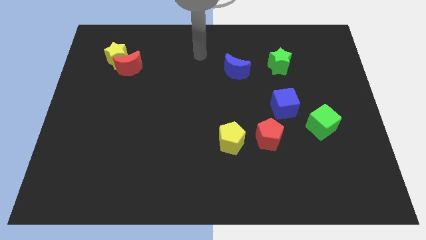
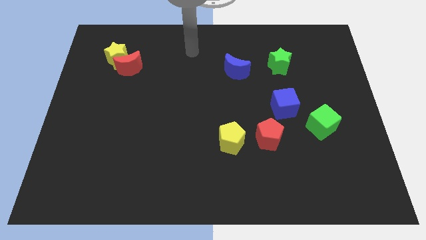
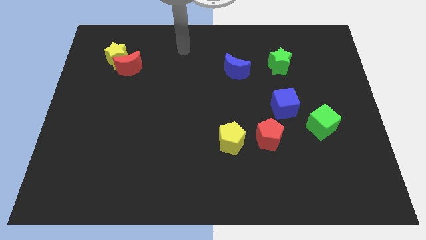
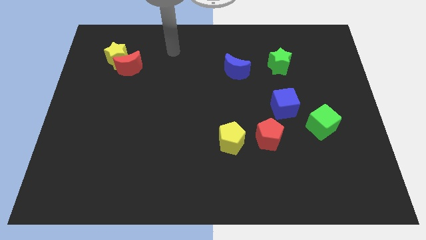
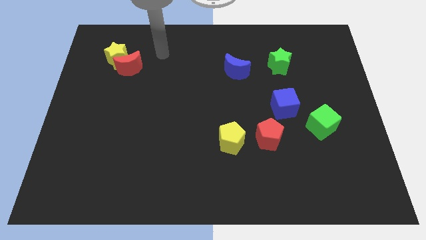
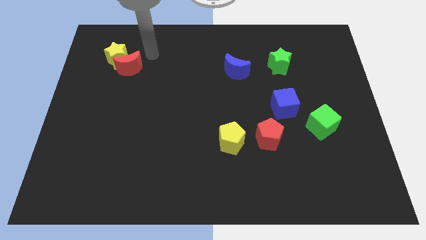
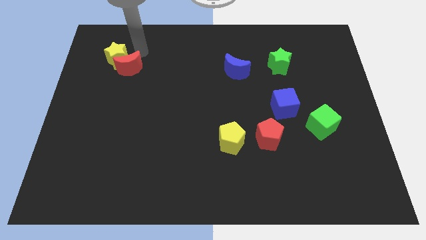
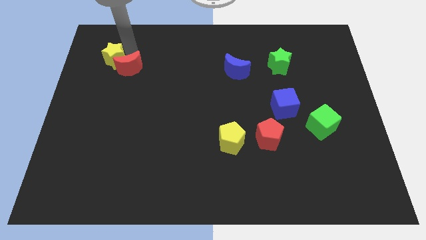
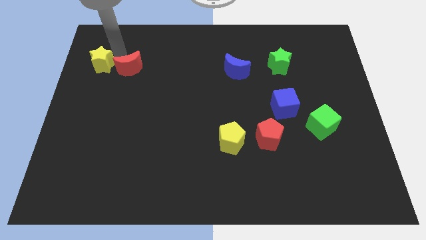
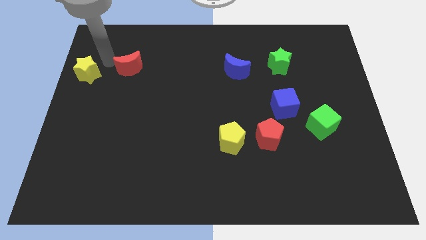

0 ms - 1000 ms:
separate the red moon from the yellow star

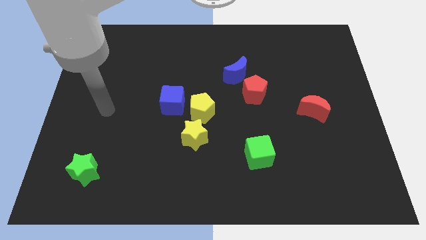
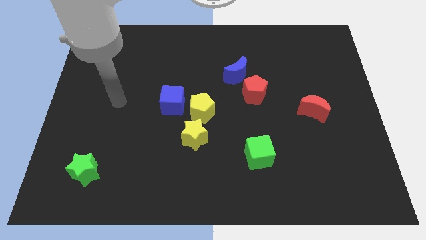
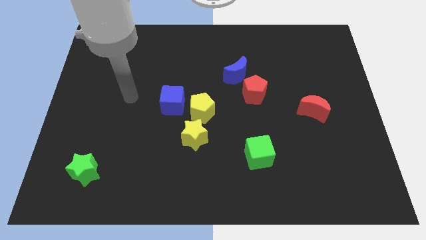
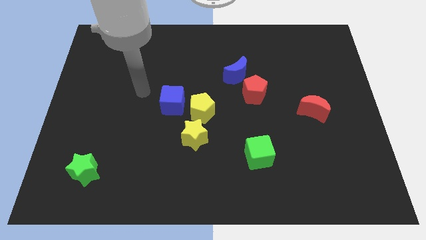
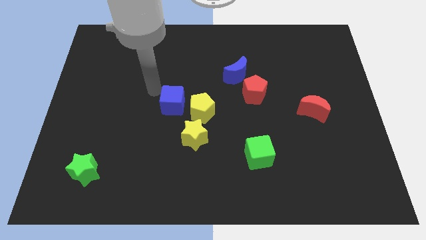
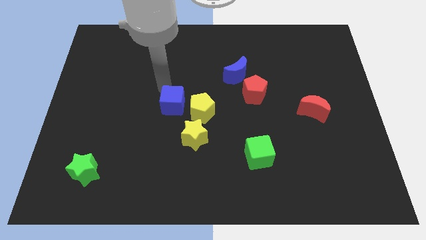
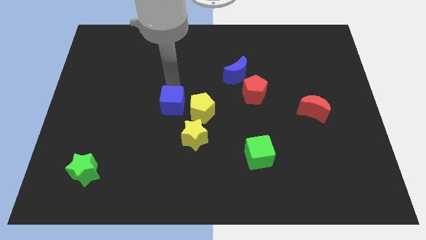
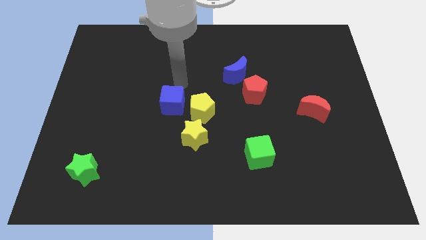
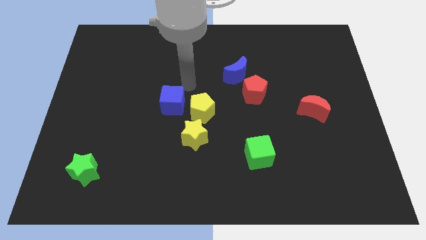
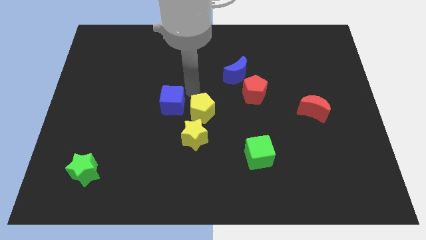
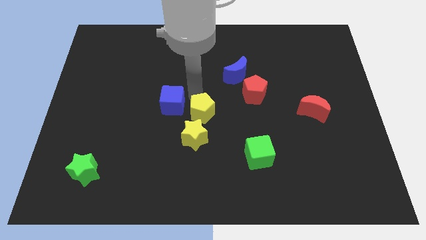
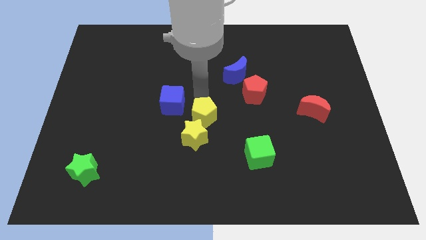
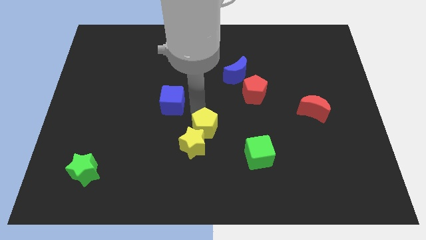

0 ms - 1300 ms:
pull the blue cube apart from the yellow pentagon

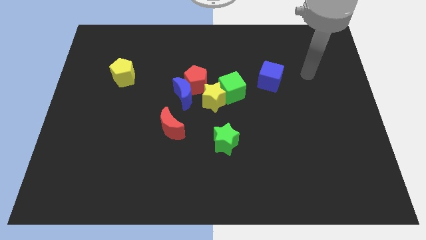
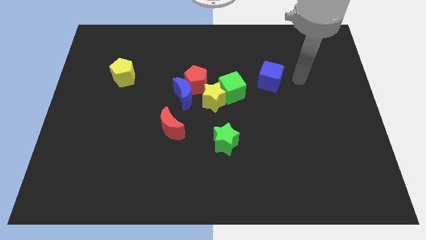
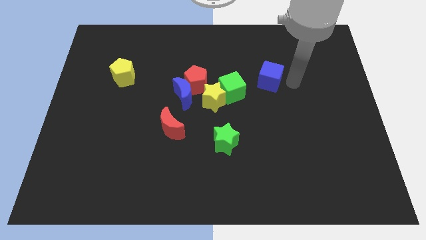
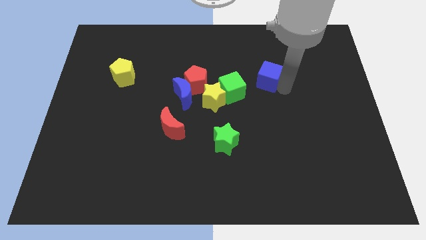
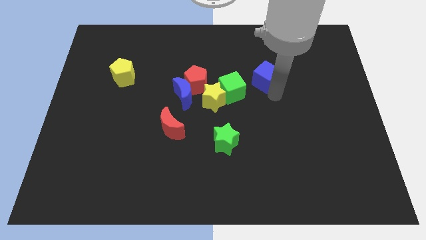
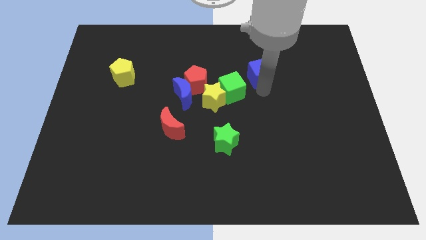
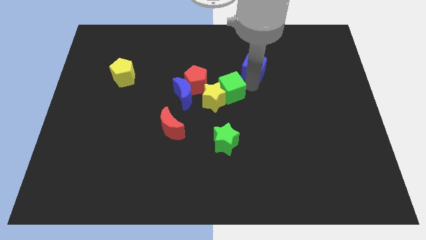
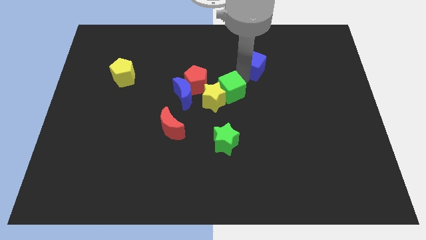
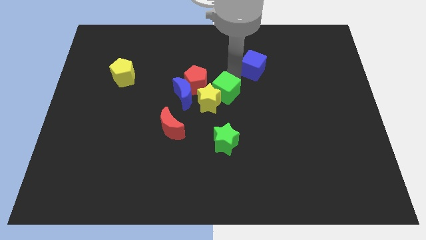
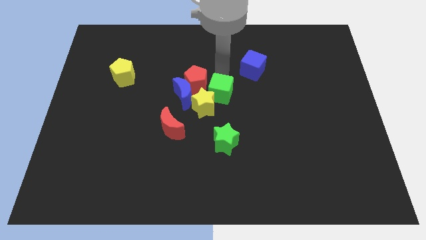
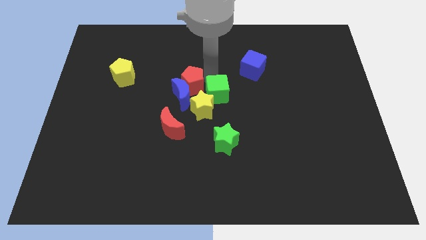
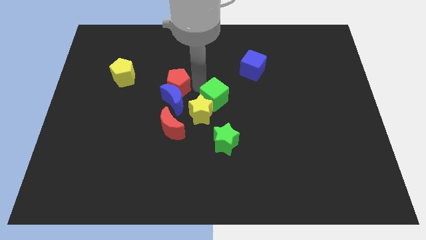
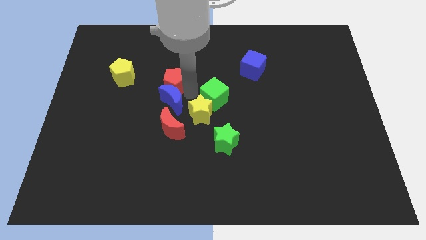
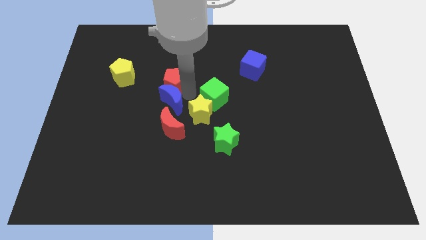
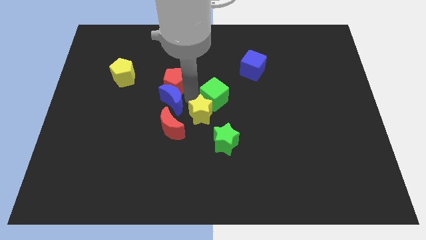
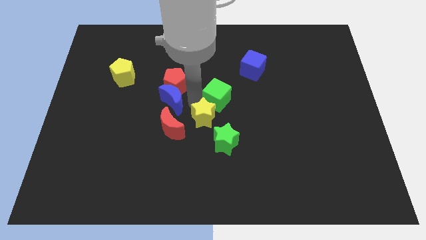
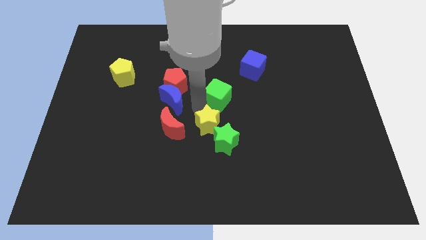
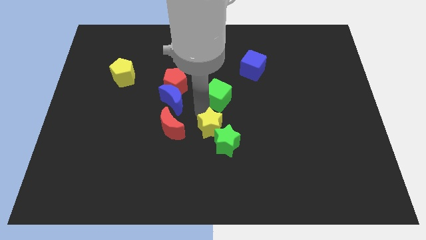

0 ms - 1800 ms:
separate the yellow star from the group of blocks

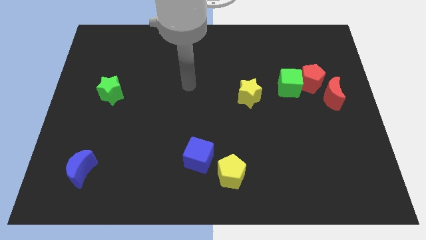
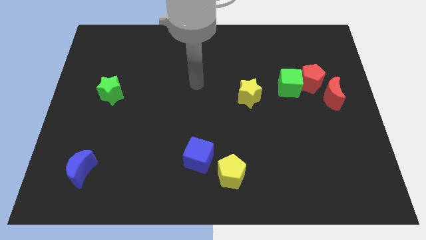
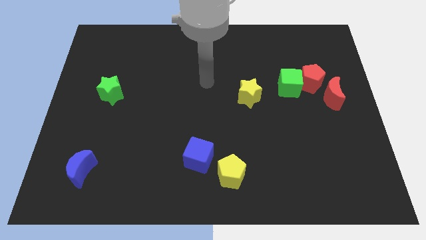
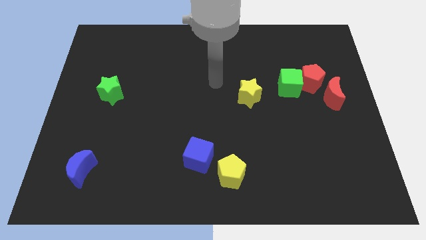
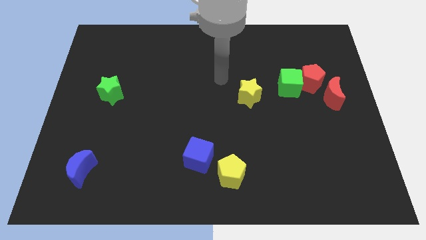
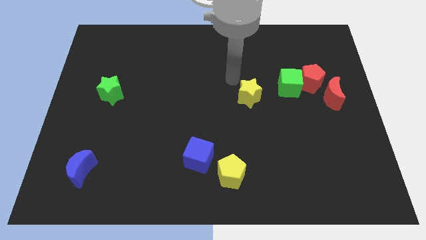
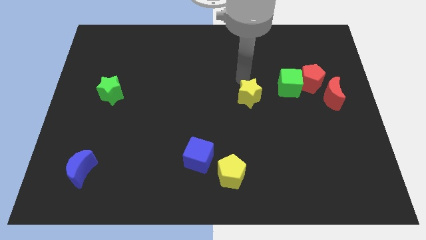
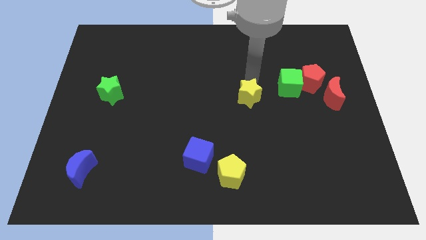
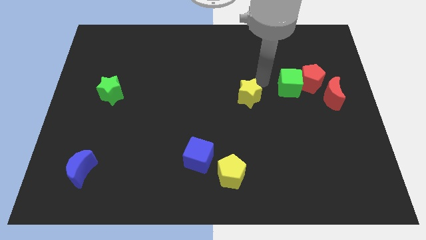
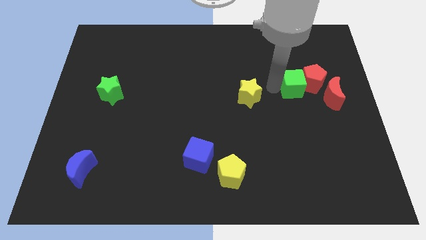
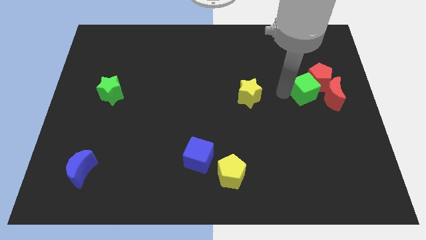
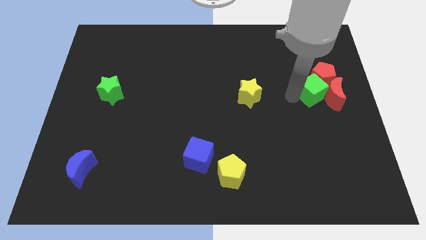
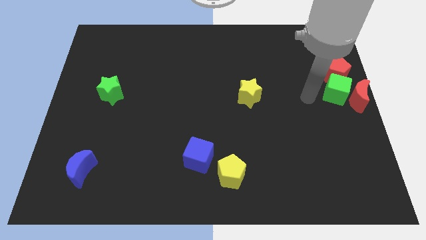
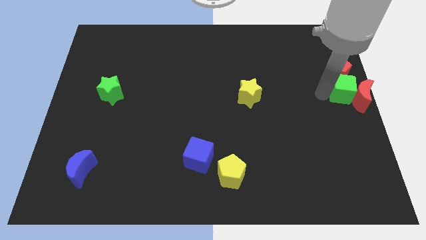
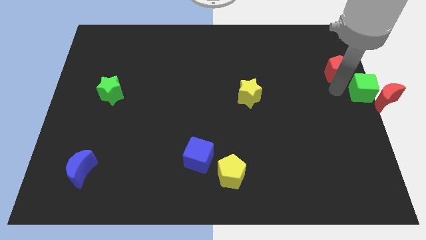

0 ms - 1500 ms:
separate the red pentagon from the green cube and red moon

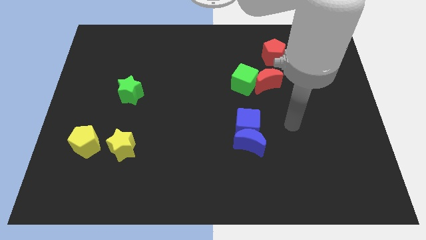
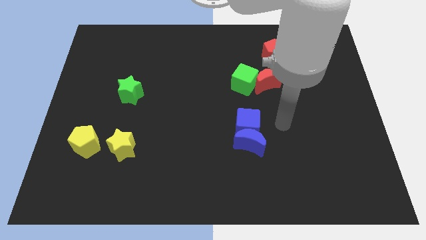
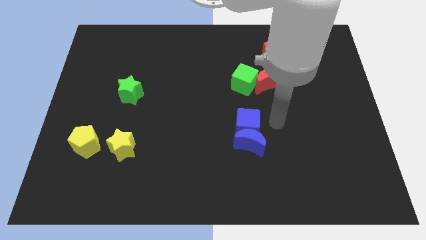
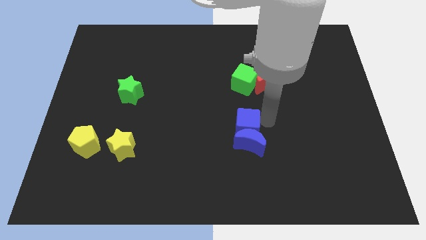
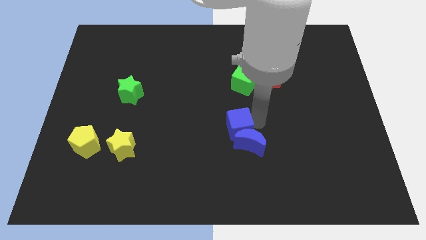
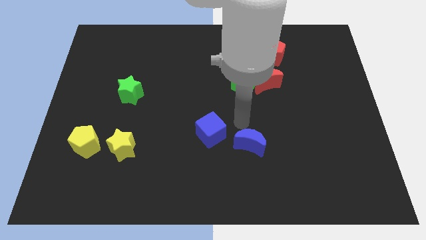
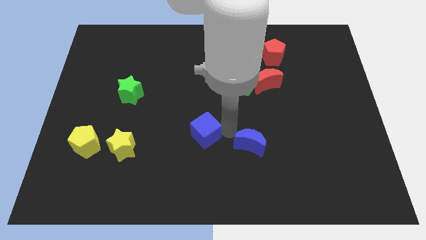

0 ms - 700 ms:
pull the blue moon apart from the blue cube

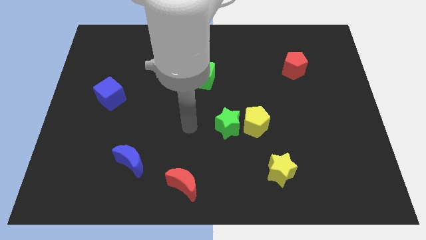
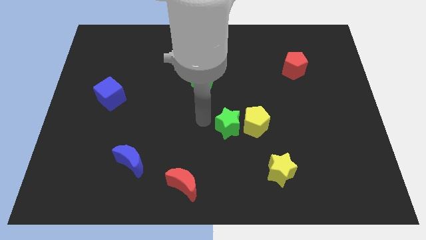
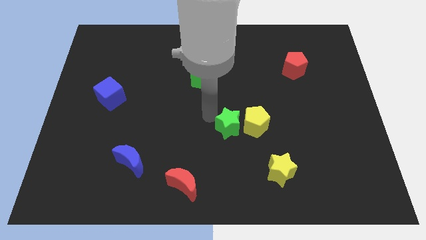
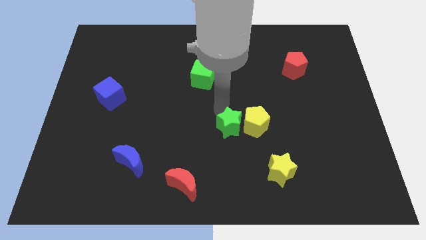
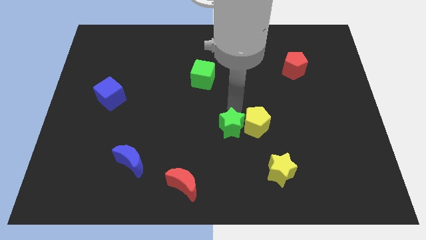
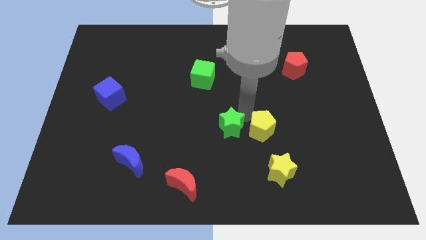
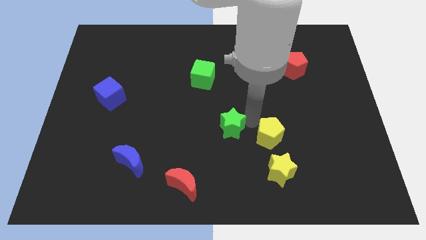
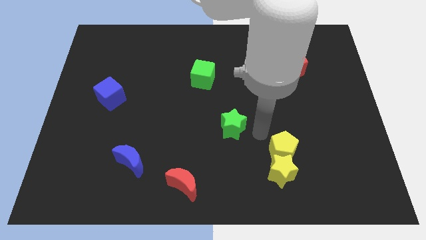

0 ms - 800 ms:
separate the green star from the yellow pentagon

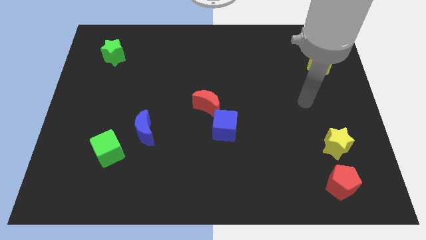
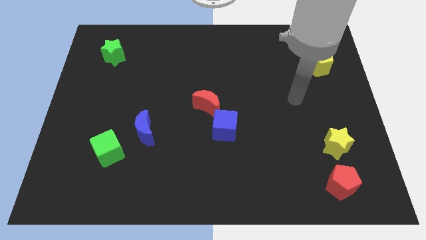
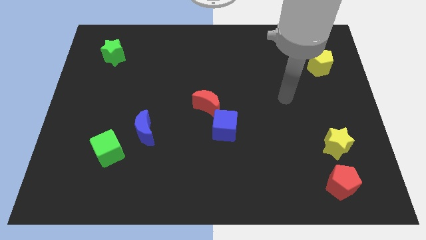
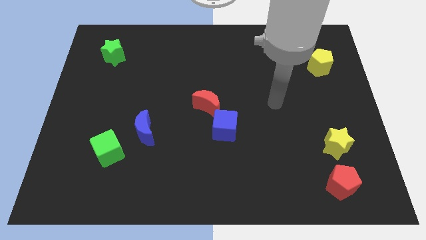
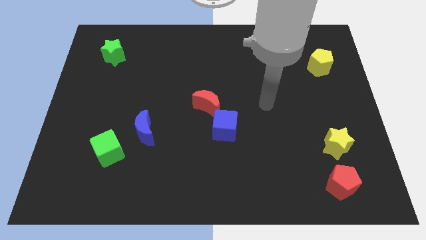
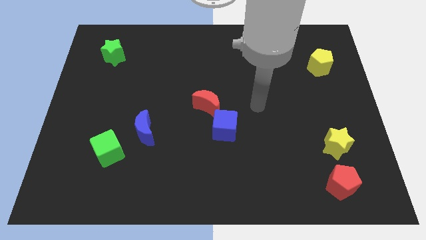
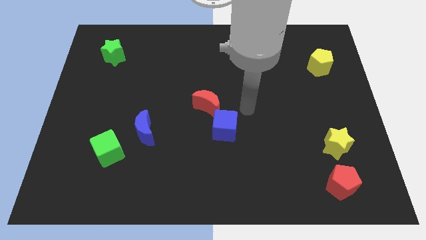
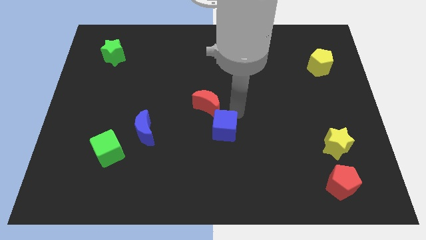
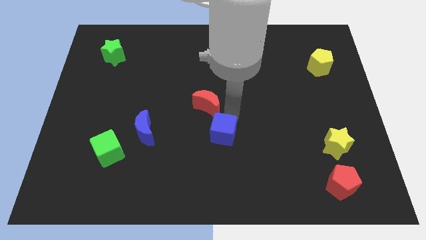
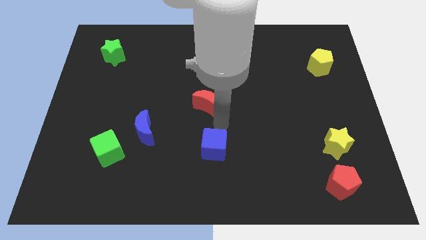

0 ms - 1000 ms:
move the red moon away from the blue cube

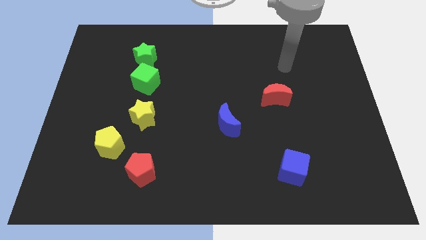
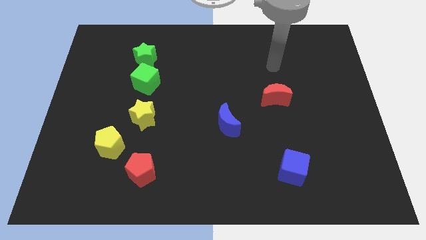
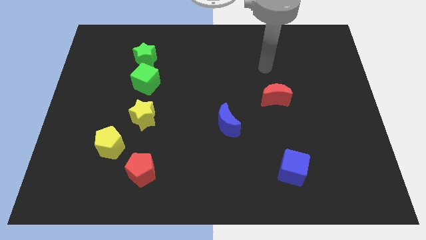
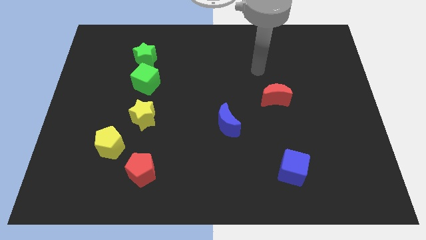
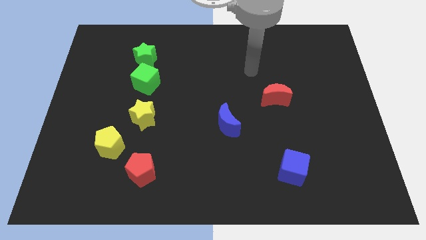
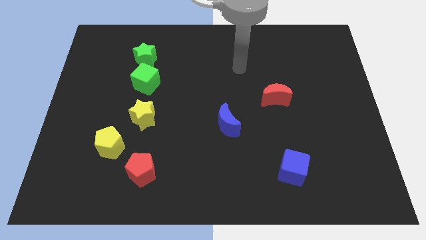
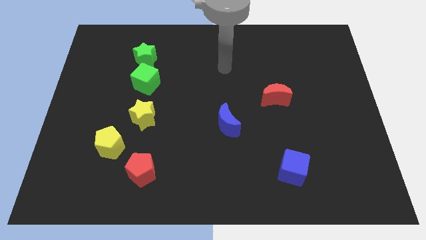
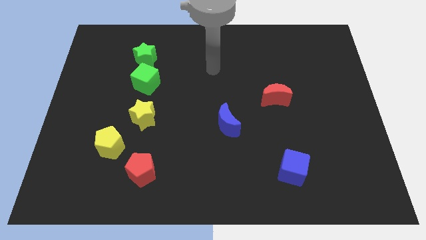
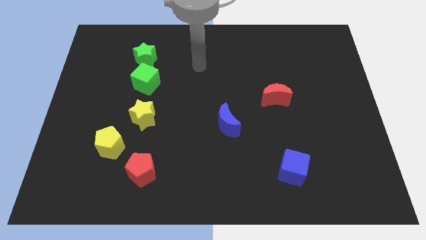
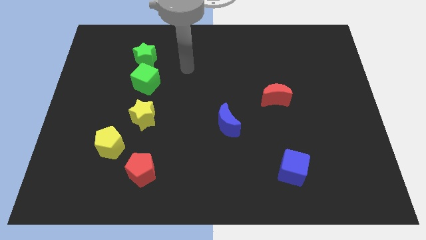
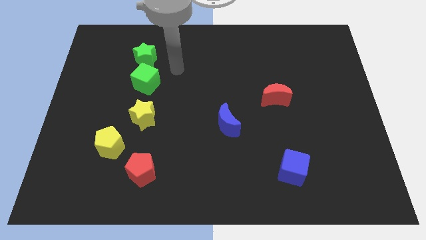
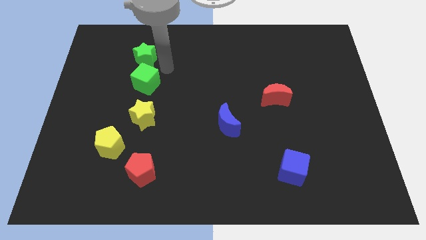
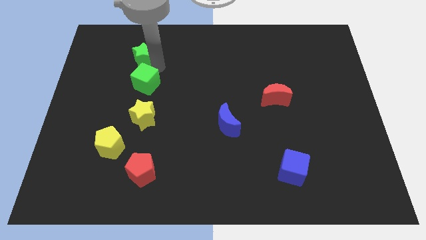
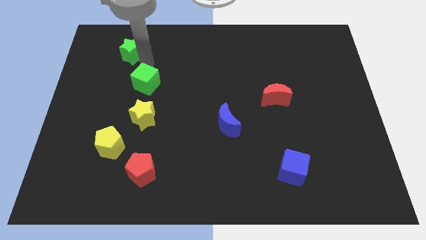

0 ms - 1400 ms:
separate the green cube from the green star

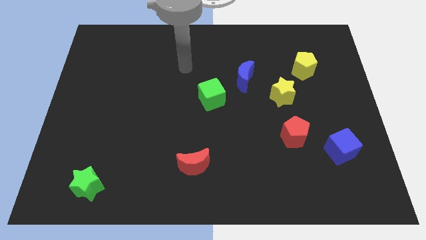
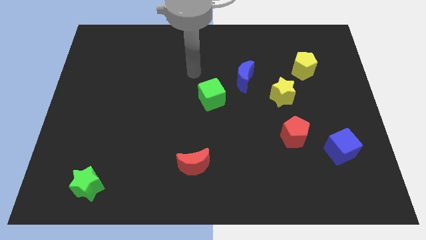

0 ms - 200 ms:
move the blue moon away from the green cube
